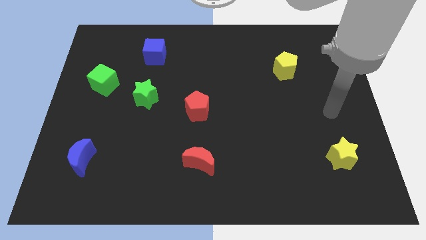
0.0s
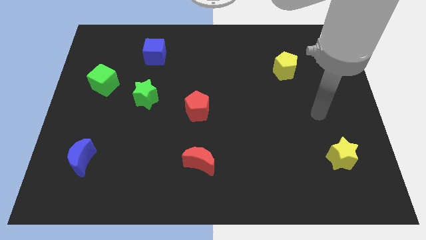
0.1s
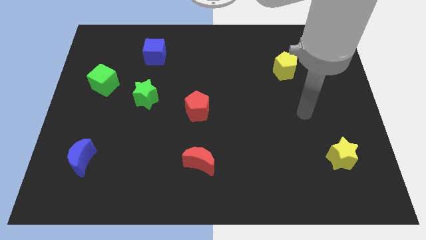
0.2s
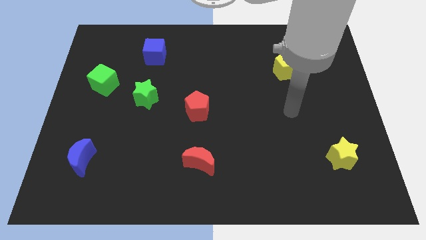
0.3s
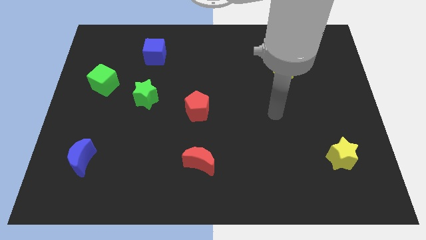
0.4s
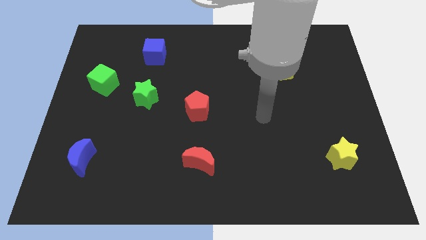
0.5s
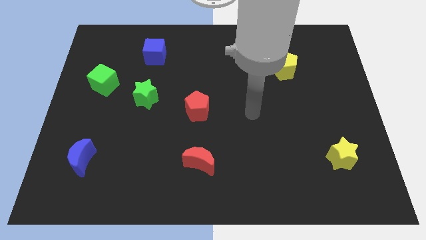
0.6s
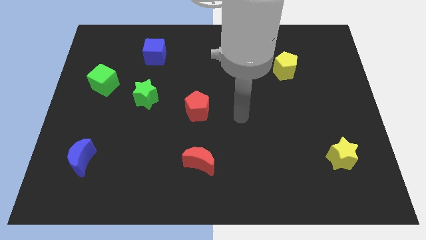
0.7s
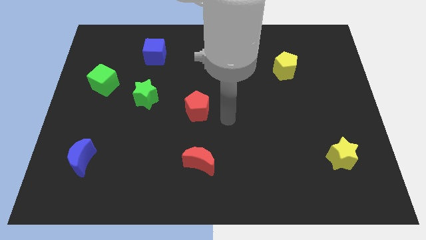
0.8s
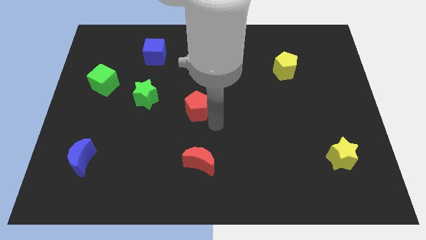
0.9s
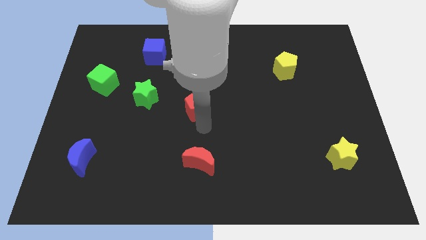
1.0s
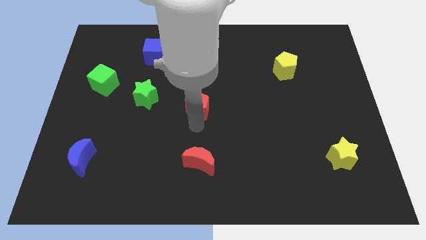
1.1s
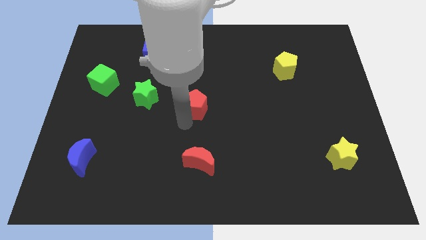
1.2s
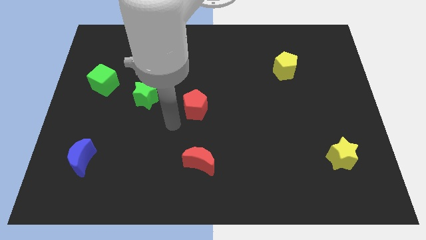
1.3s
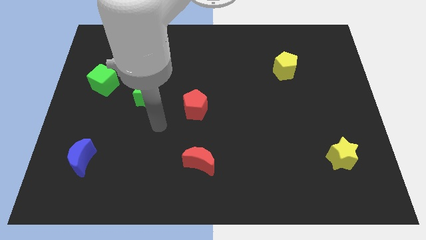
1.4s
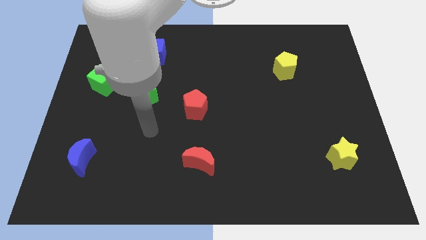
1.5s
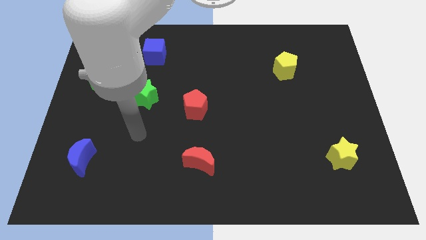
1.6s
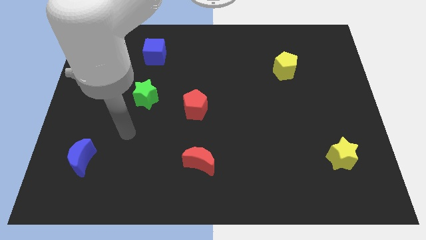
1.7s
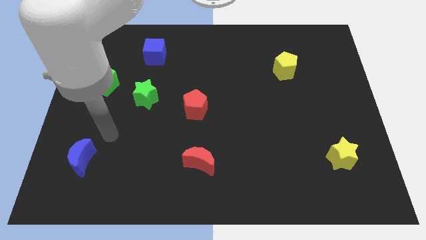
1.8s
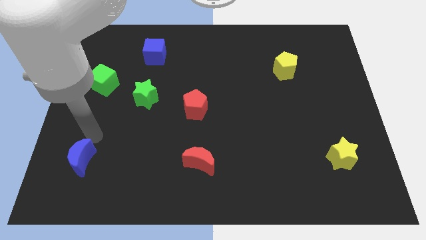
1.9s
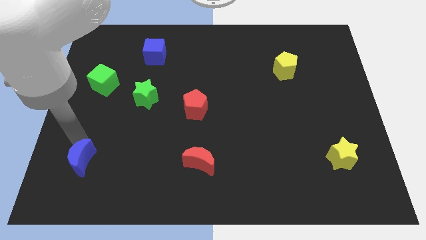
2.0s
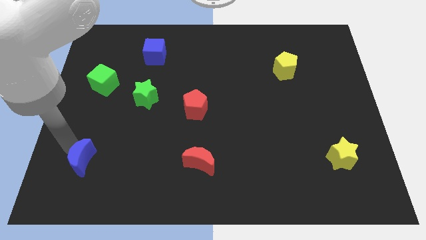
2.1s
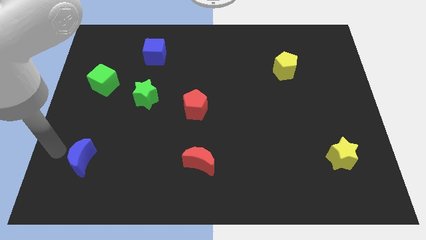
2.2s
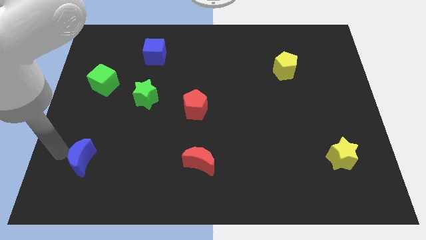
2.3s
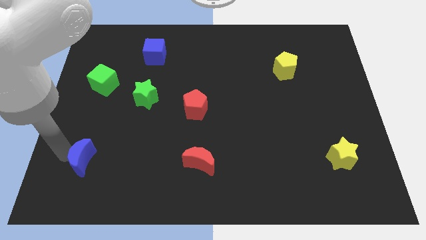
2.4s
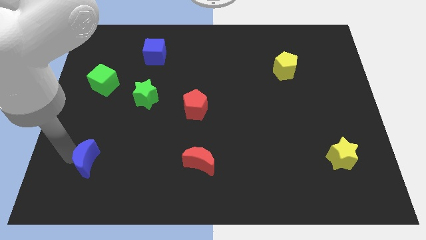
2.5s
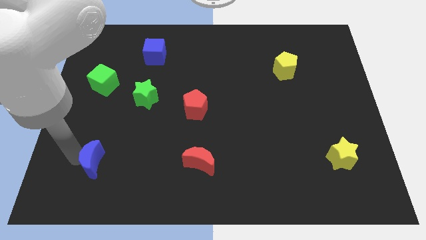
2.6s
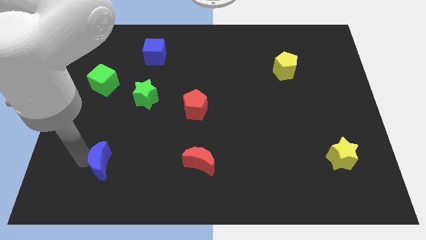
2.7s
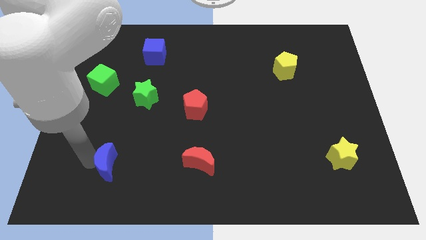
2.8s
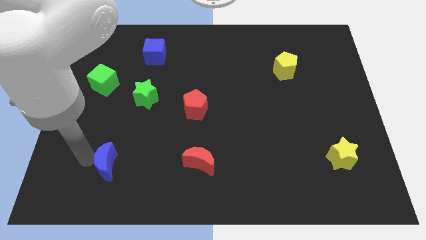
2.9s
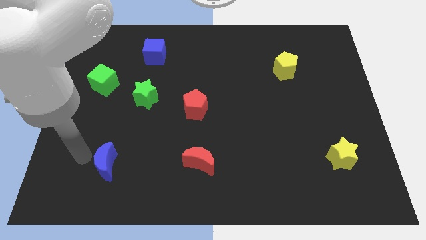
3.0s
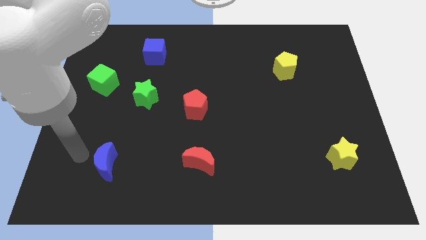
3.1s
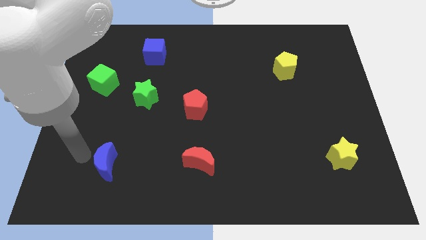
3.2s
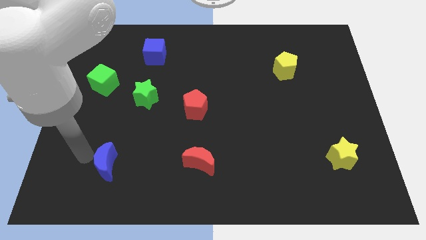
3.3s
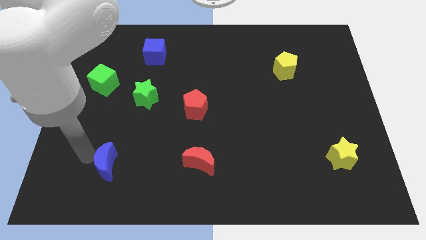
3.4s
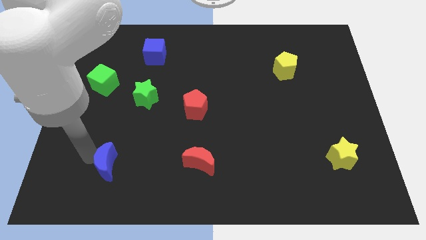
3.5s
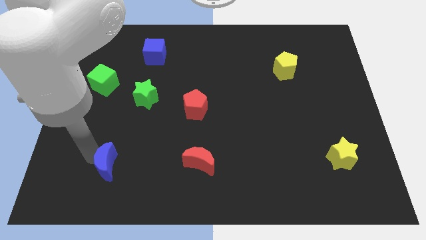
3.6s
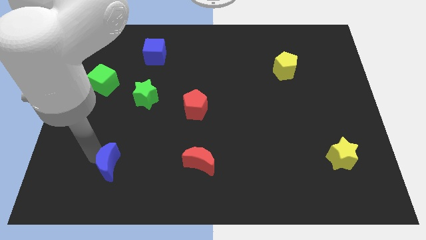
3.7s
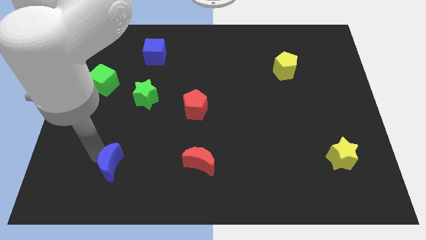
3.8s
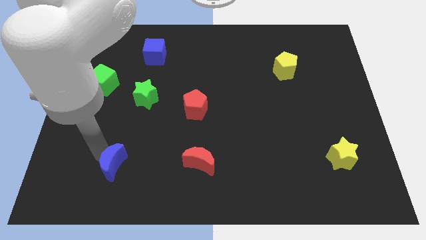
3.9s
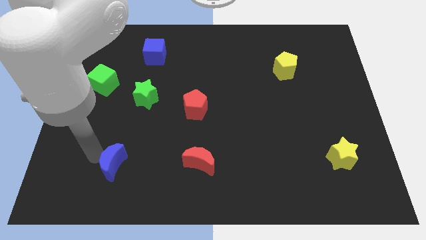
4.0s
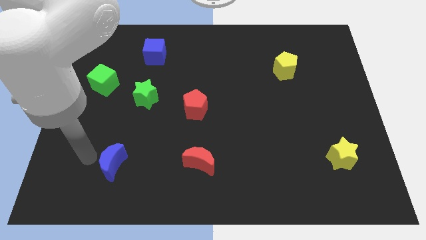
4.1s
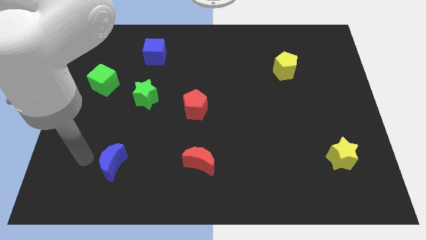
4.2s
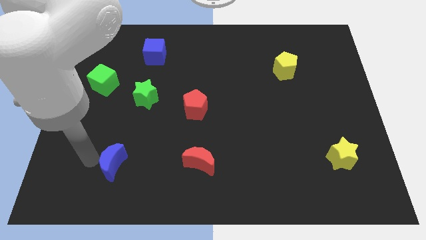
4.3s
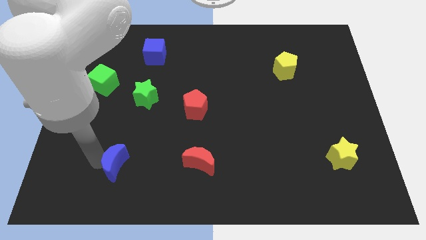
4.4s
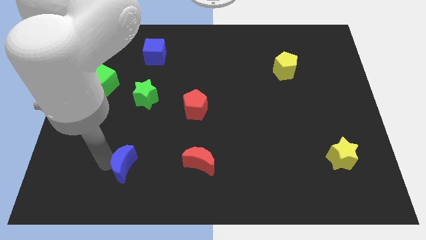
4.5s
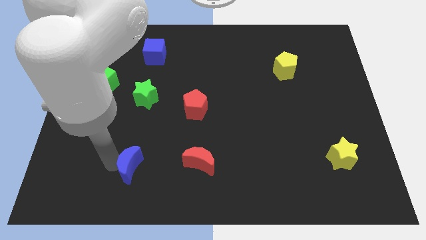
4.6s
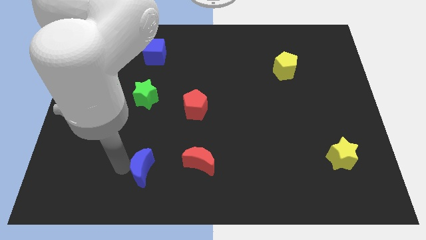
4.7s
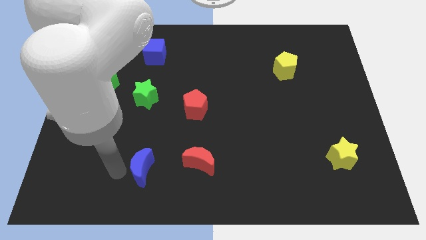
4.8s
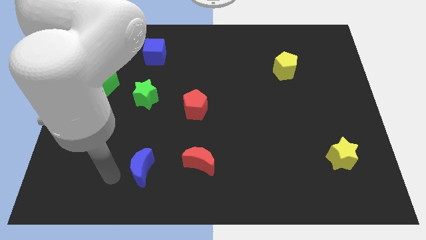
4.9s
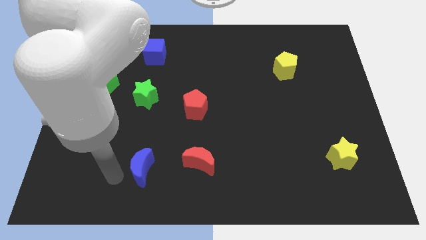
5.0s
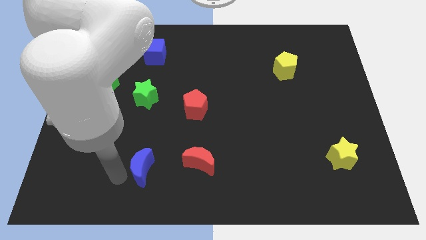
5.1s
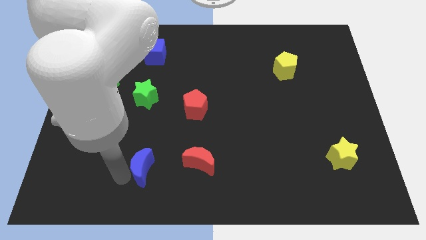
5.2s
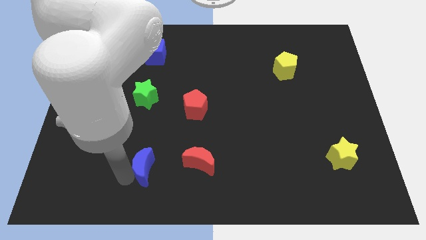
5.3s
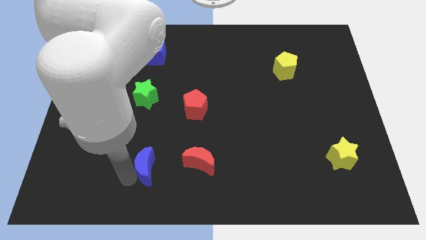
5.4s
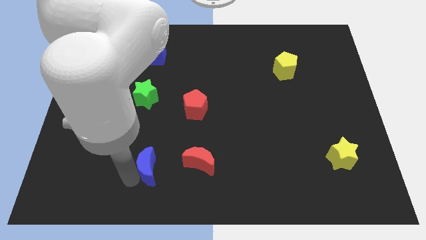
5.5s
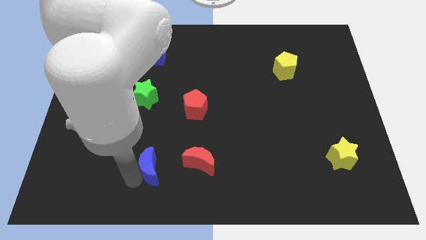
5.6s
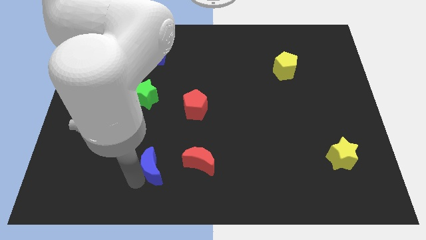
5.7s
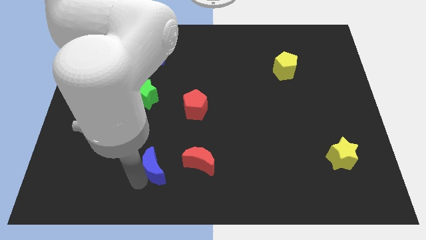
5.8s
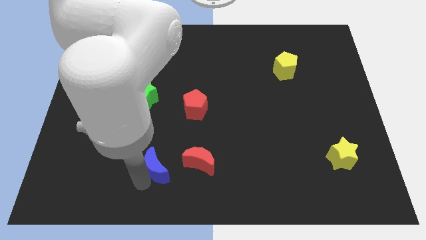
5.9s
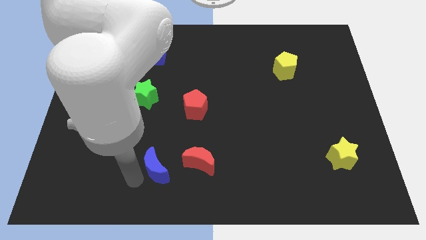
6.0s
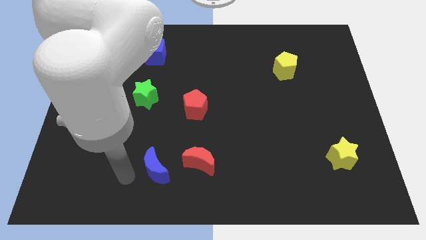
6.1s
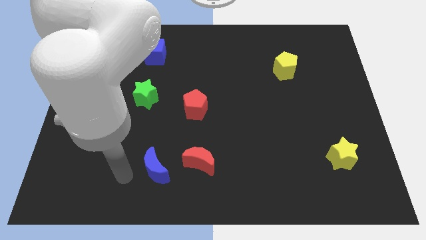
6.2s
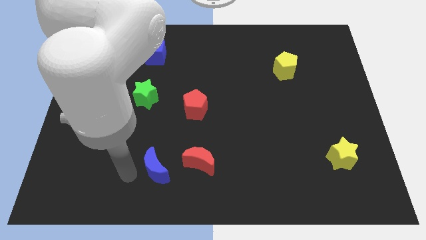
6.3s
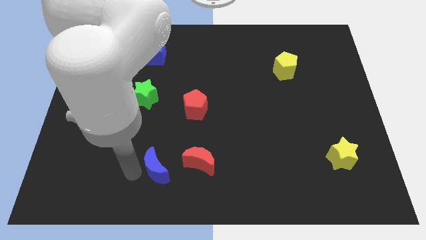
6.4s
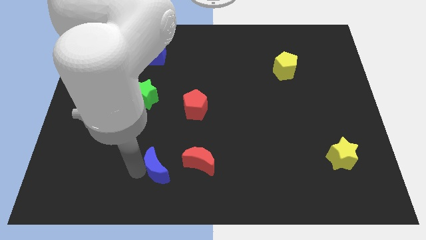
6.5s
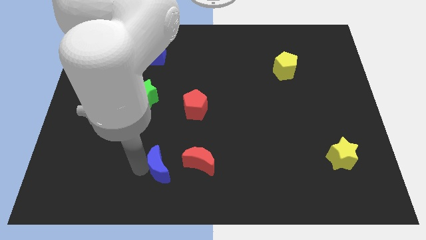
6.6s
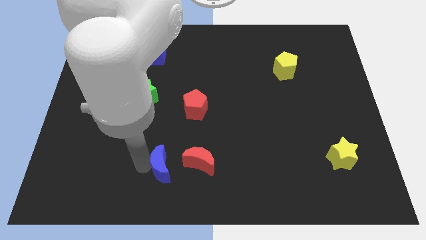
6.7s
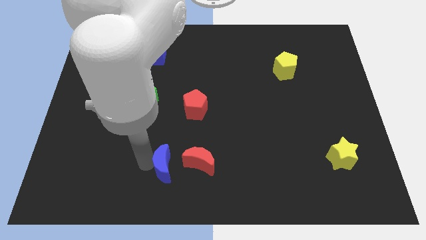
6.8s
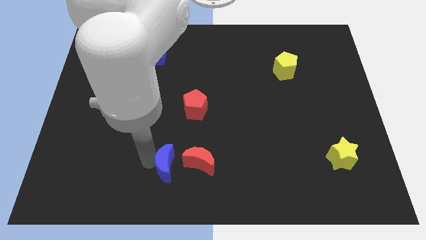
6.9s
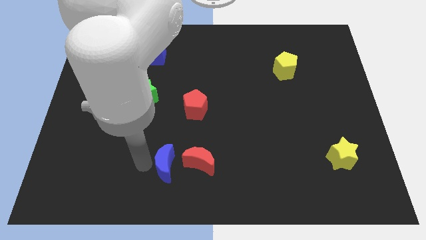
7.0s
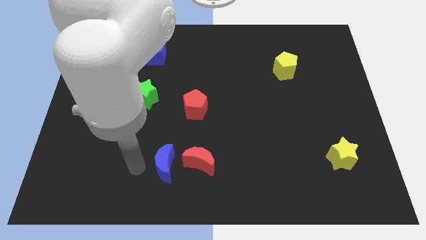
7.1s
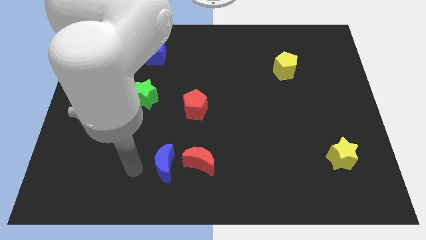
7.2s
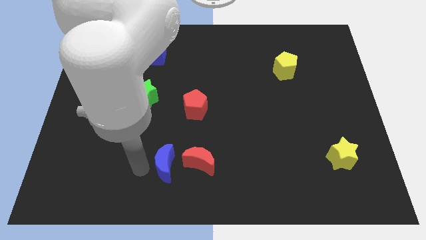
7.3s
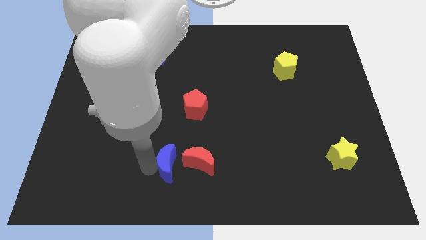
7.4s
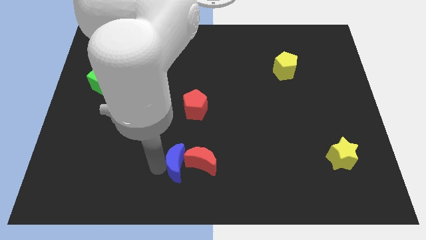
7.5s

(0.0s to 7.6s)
move the blue moon close to the red moon
